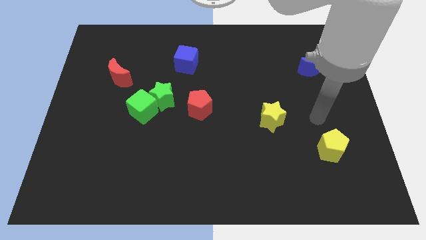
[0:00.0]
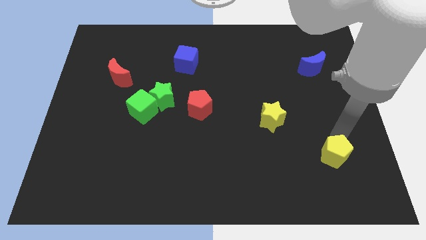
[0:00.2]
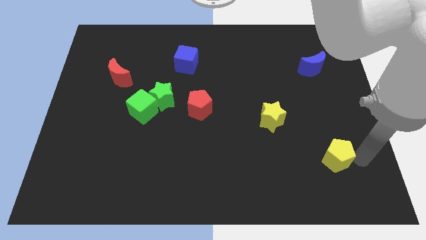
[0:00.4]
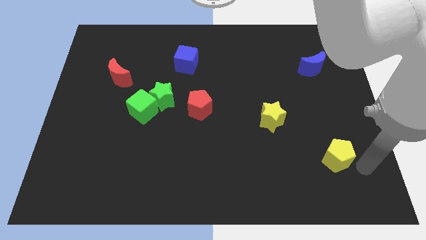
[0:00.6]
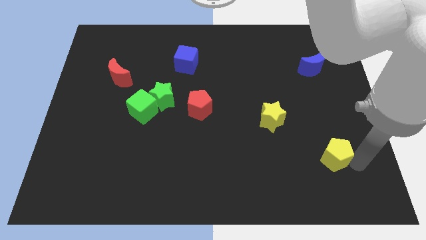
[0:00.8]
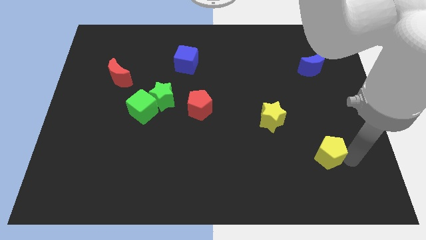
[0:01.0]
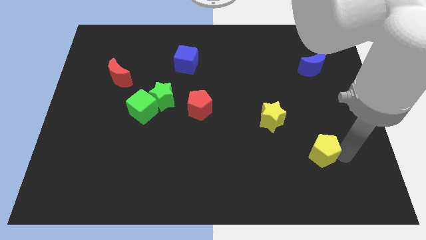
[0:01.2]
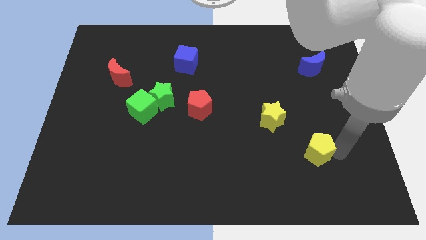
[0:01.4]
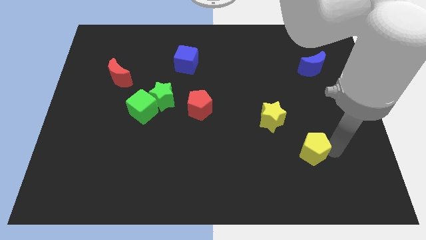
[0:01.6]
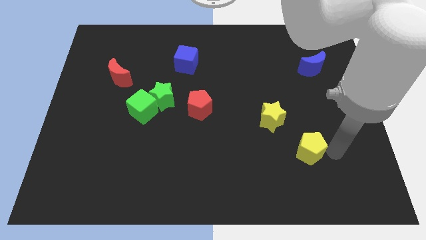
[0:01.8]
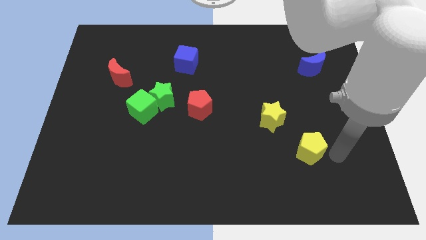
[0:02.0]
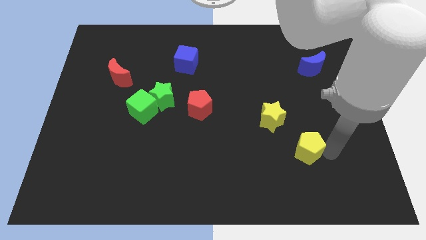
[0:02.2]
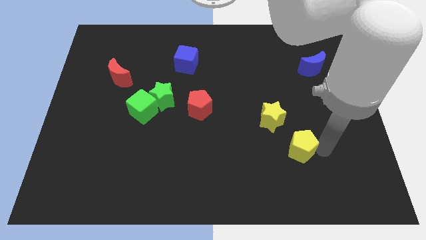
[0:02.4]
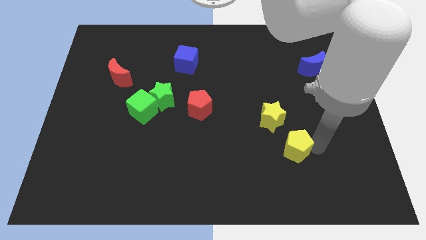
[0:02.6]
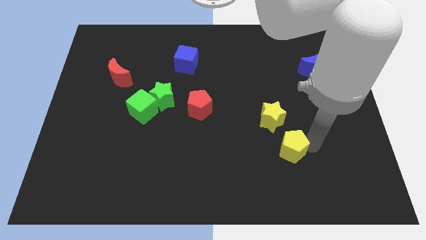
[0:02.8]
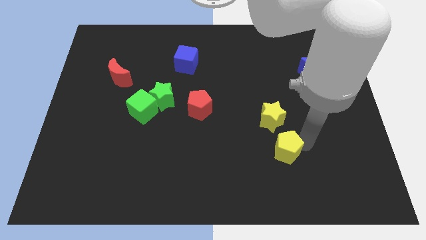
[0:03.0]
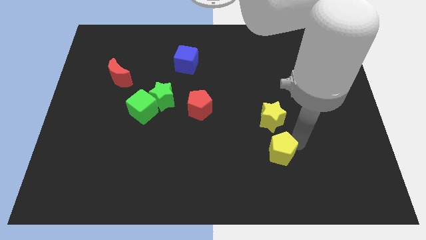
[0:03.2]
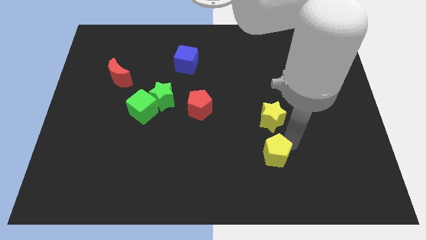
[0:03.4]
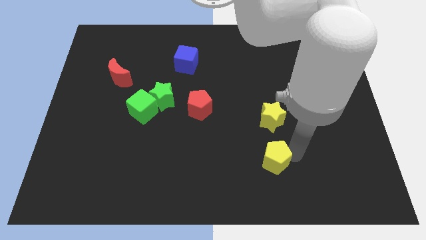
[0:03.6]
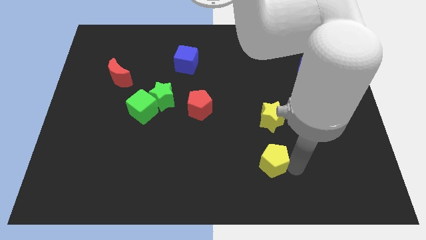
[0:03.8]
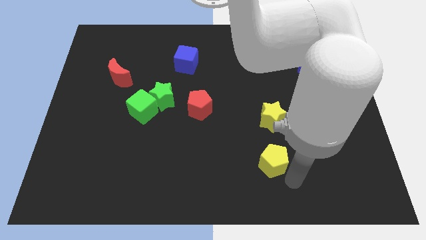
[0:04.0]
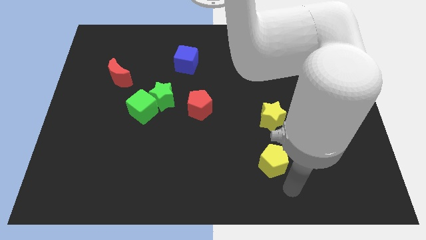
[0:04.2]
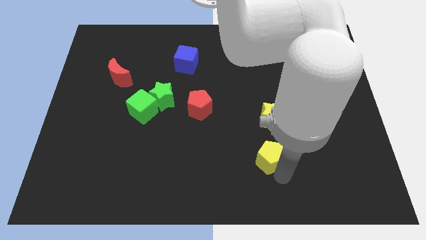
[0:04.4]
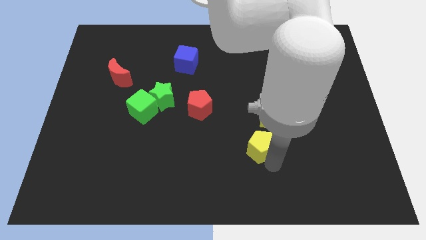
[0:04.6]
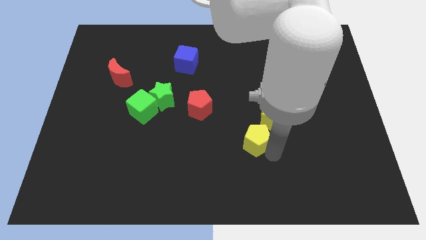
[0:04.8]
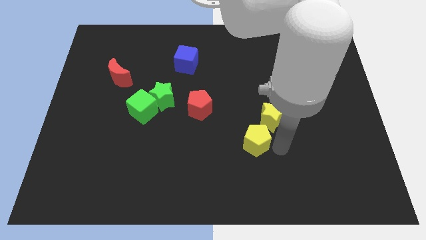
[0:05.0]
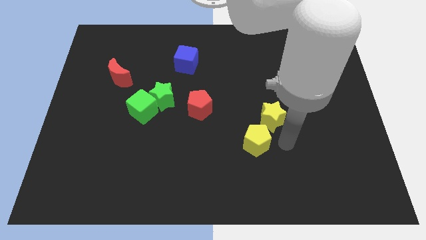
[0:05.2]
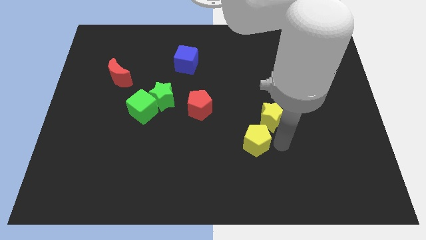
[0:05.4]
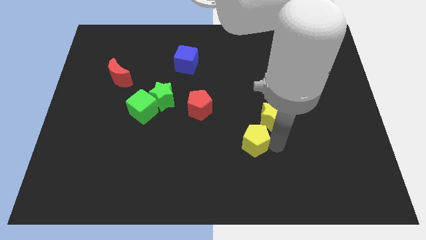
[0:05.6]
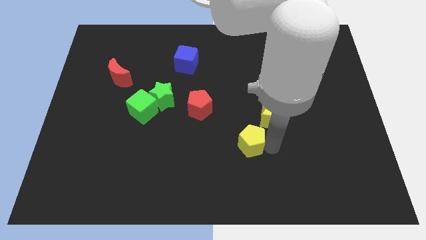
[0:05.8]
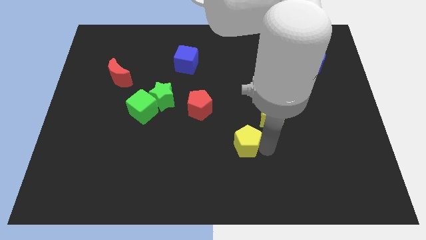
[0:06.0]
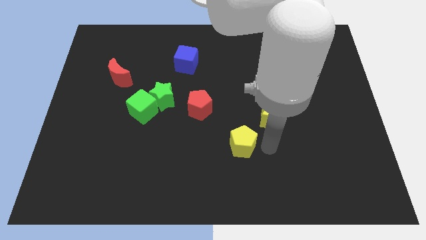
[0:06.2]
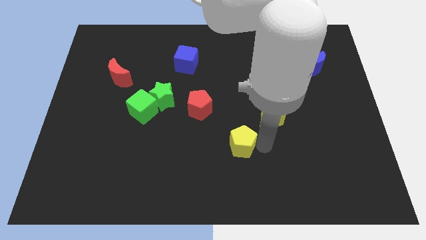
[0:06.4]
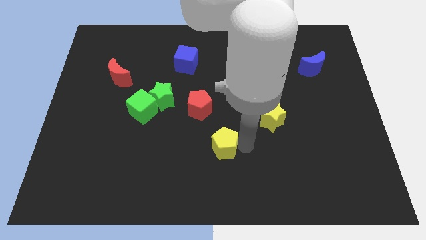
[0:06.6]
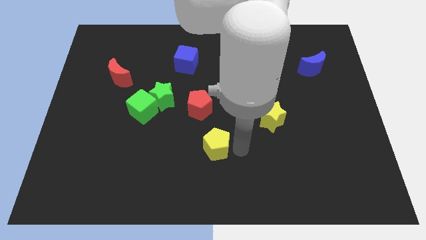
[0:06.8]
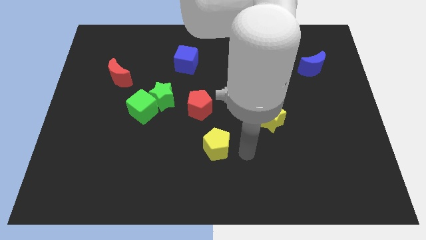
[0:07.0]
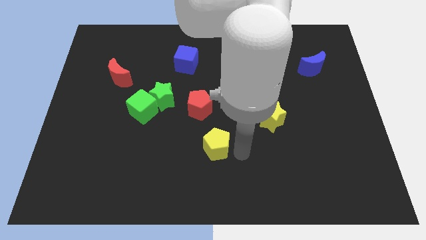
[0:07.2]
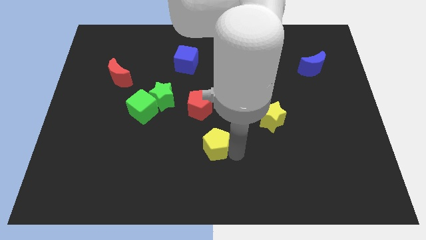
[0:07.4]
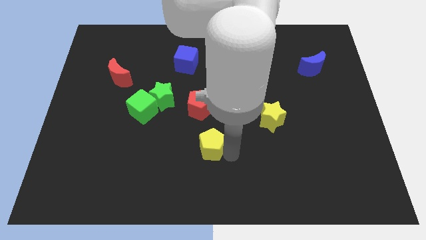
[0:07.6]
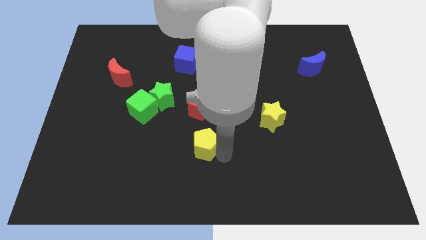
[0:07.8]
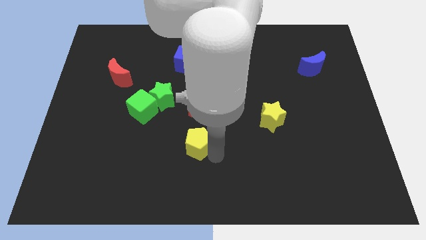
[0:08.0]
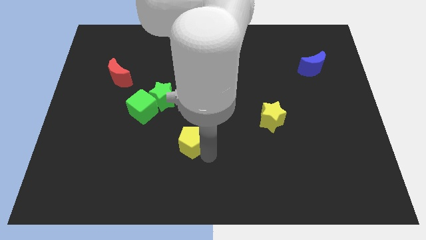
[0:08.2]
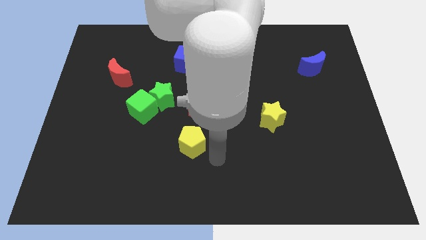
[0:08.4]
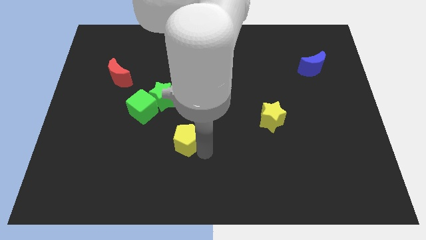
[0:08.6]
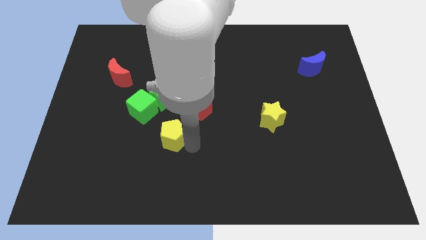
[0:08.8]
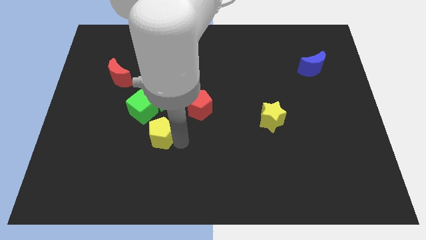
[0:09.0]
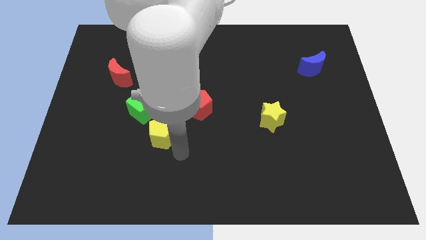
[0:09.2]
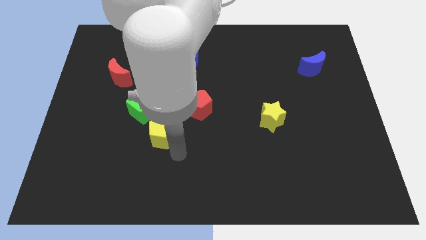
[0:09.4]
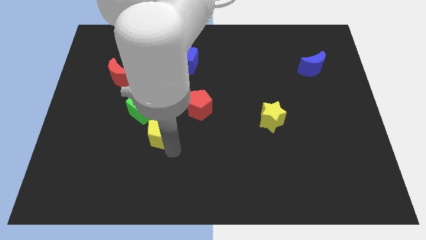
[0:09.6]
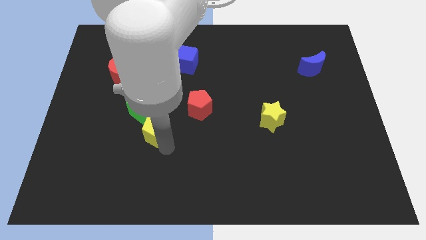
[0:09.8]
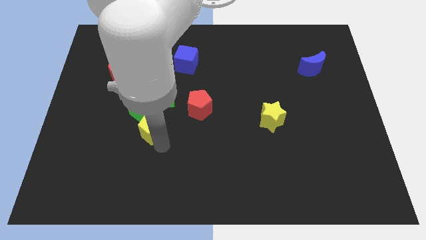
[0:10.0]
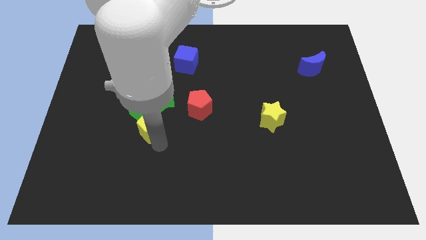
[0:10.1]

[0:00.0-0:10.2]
push the yellow pentagon next to the green cube

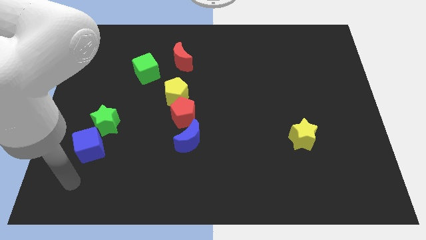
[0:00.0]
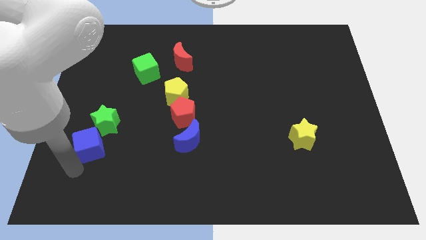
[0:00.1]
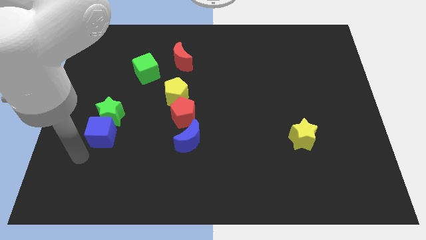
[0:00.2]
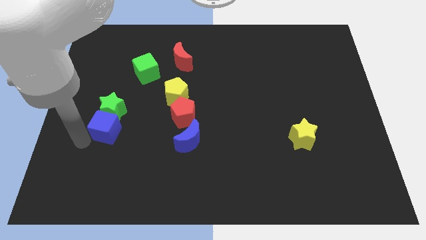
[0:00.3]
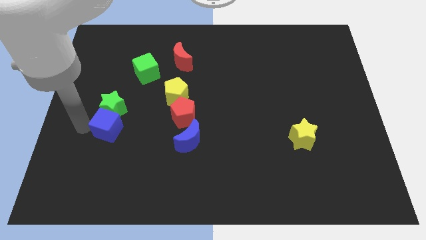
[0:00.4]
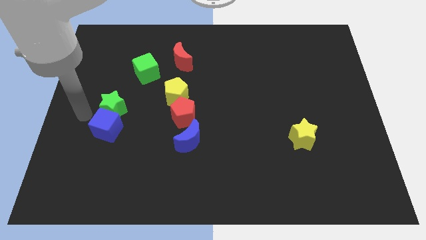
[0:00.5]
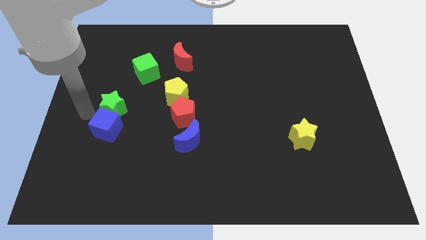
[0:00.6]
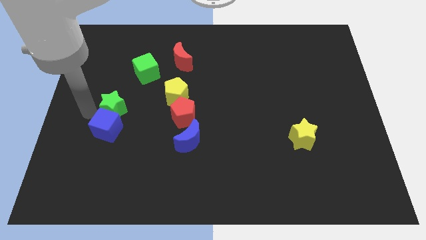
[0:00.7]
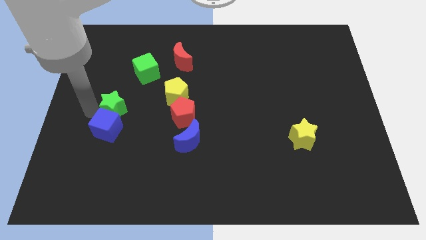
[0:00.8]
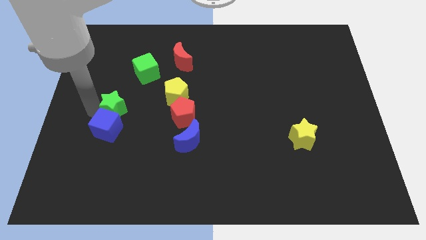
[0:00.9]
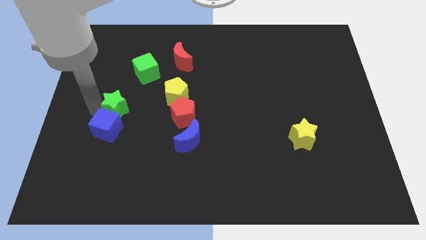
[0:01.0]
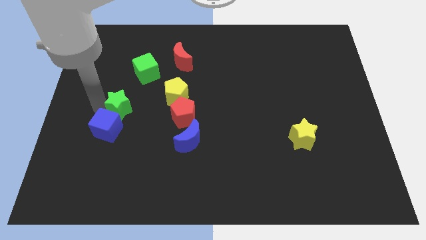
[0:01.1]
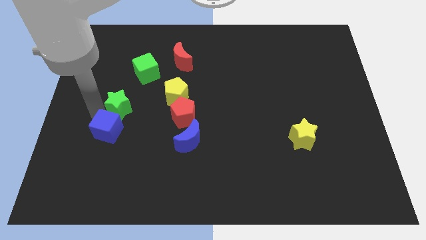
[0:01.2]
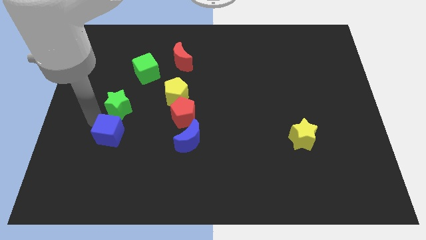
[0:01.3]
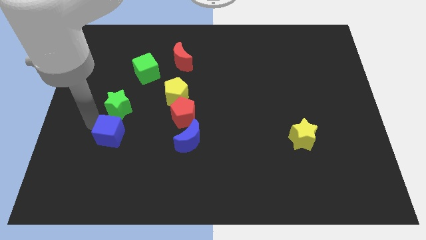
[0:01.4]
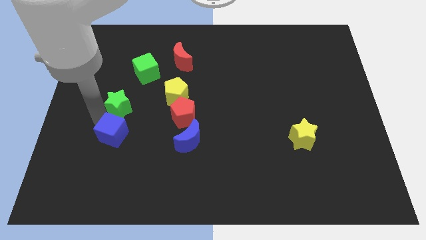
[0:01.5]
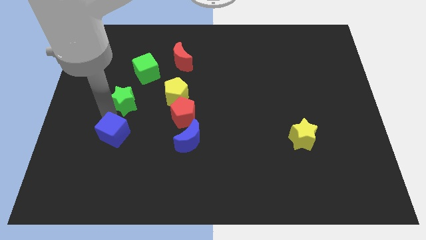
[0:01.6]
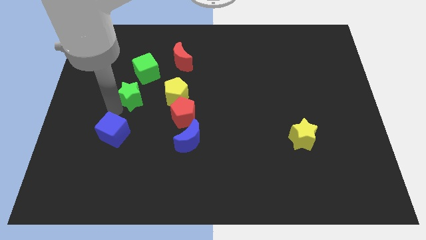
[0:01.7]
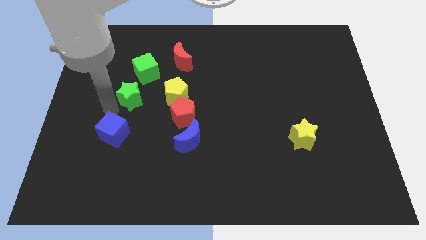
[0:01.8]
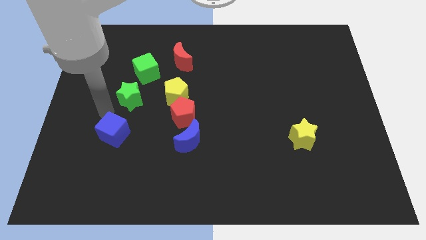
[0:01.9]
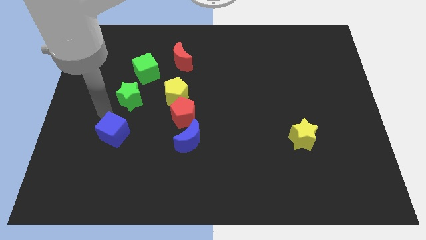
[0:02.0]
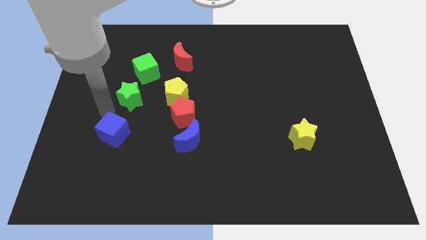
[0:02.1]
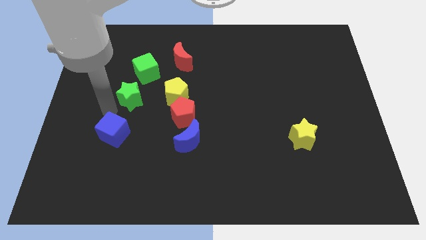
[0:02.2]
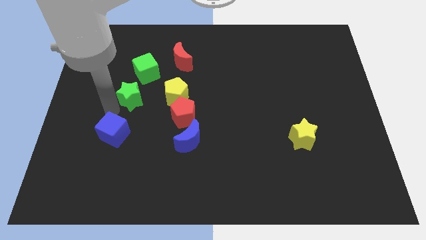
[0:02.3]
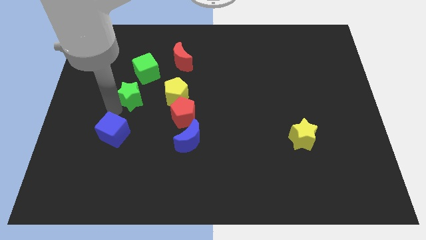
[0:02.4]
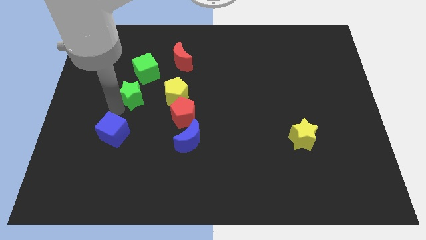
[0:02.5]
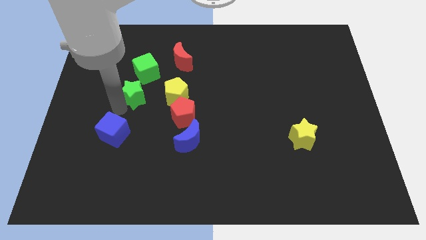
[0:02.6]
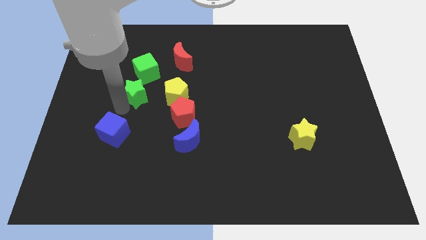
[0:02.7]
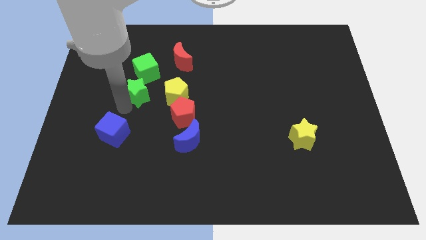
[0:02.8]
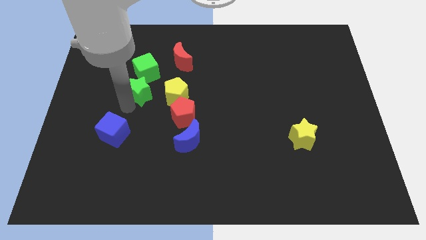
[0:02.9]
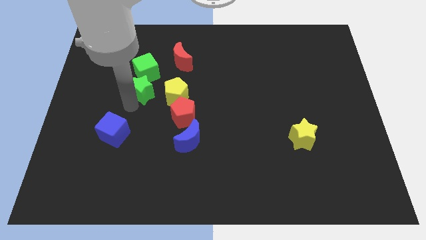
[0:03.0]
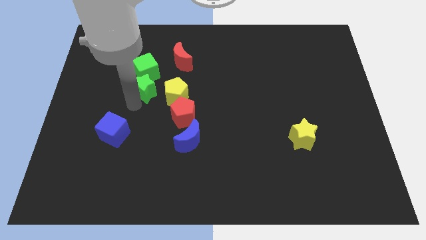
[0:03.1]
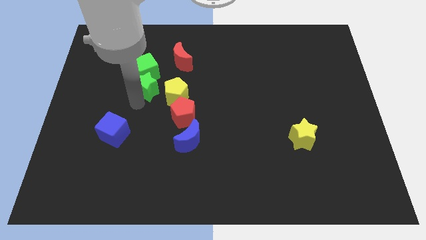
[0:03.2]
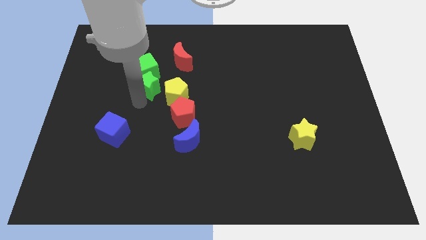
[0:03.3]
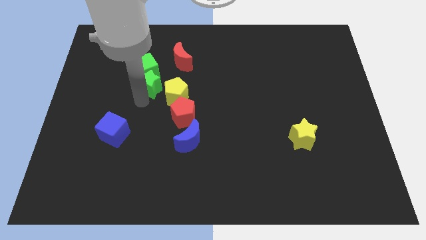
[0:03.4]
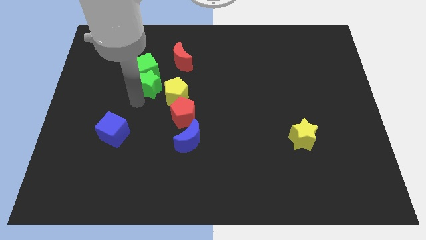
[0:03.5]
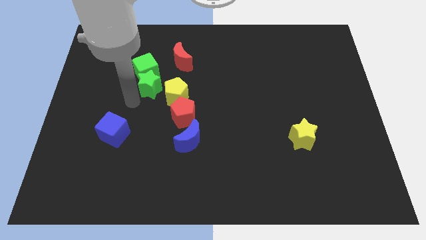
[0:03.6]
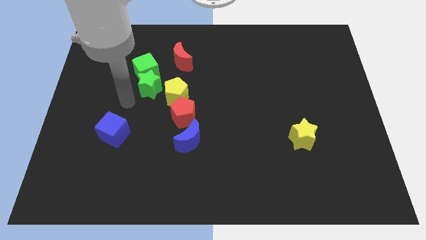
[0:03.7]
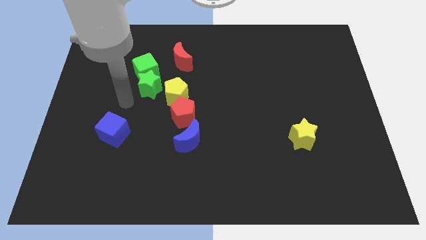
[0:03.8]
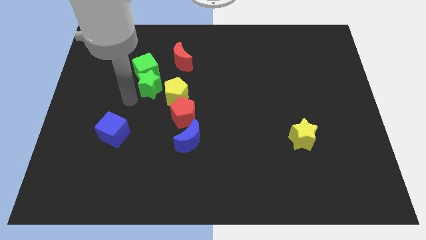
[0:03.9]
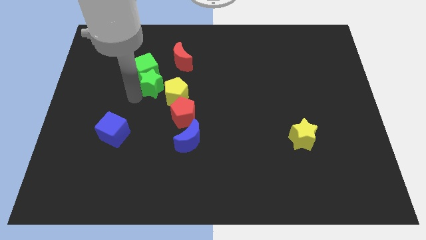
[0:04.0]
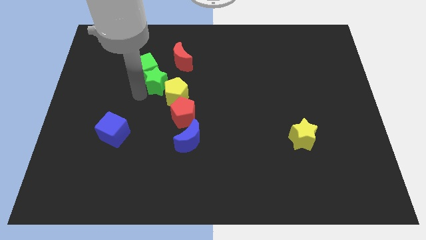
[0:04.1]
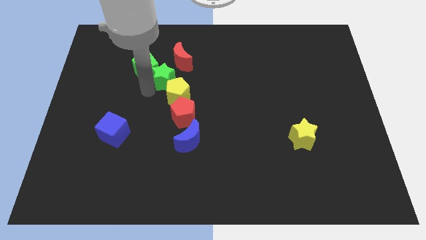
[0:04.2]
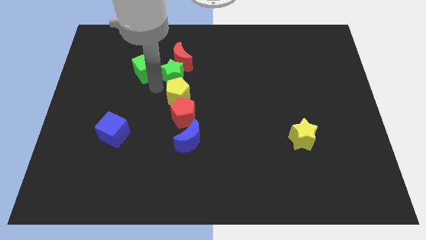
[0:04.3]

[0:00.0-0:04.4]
put the green star to the red moon
